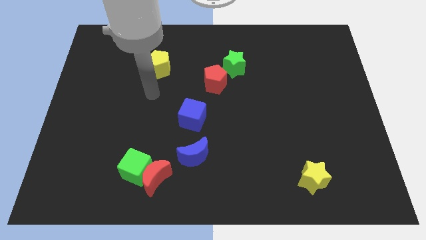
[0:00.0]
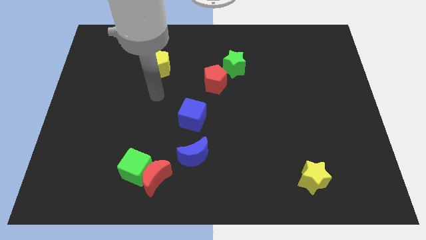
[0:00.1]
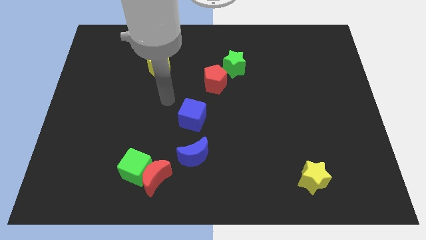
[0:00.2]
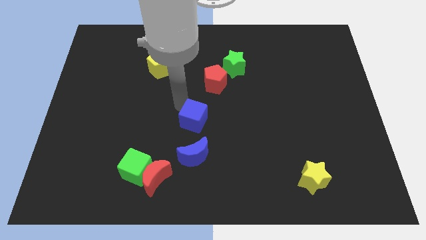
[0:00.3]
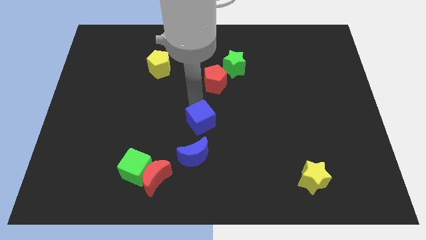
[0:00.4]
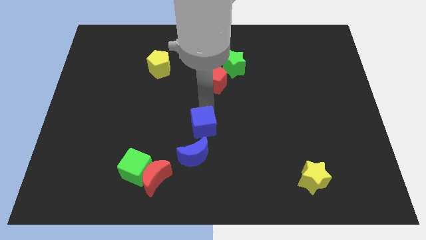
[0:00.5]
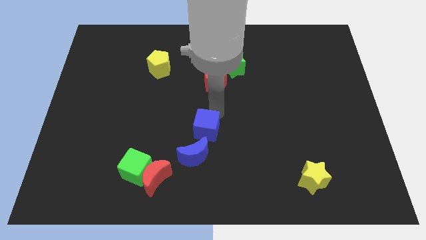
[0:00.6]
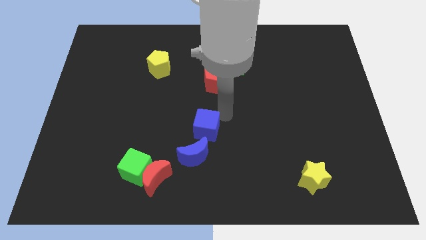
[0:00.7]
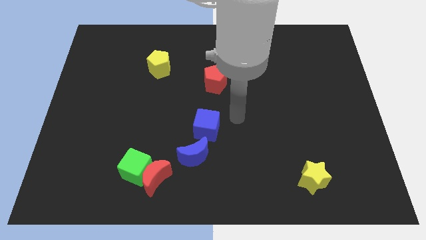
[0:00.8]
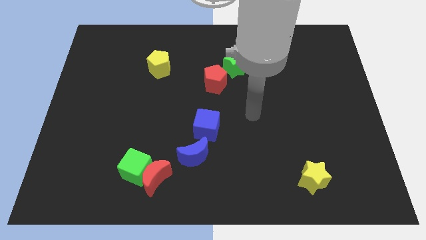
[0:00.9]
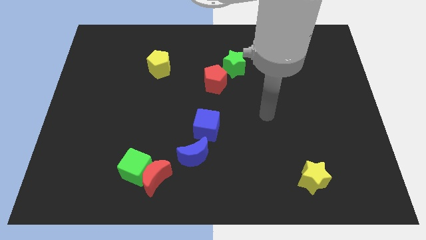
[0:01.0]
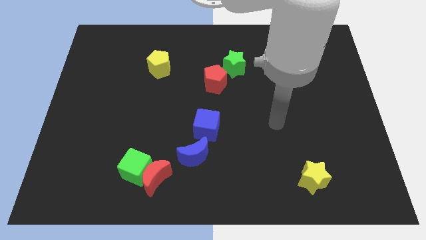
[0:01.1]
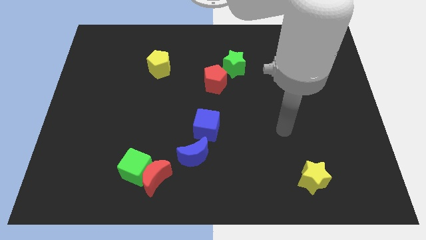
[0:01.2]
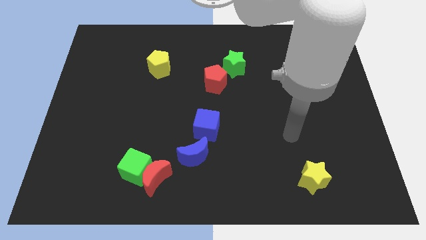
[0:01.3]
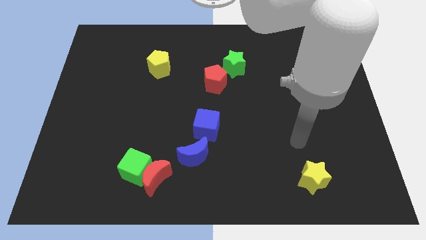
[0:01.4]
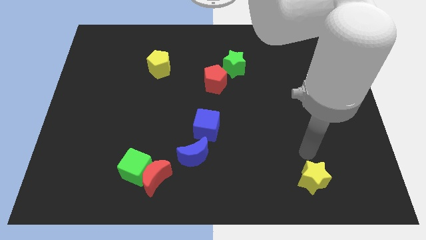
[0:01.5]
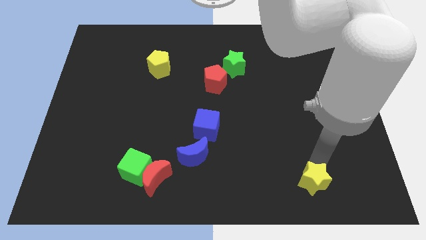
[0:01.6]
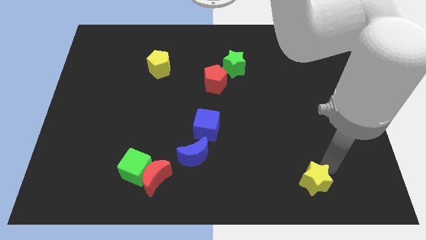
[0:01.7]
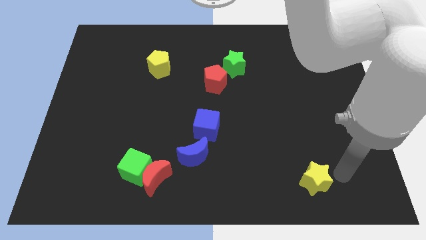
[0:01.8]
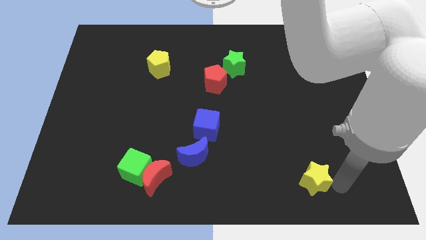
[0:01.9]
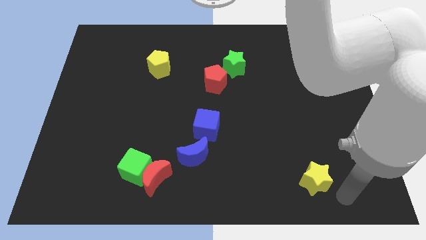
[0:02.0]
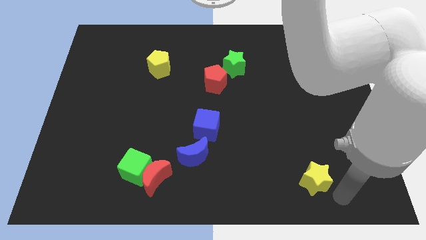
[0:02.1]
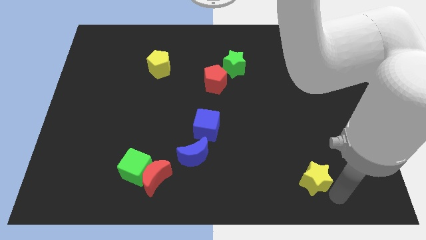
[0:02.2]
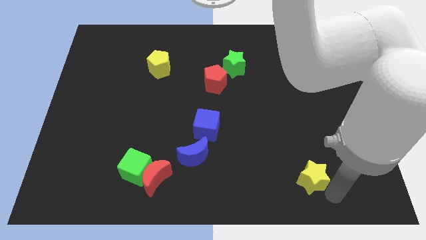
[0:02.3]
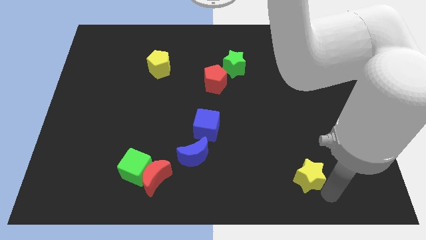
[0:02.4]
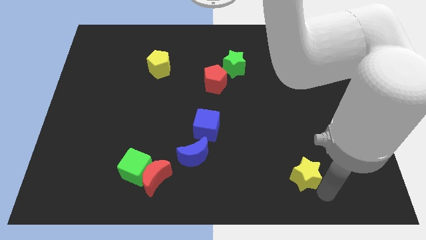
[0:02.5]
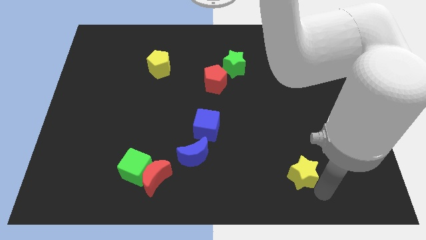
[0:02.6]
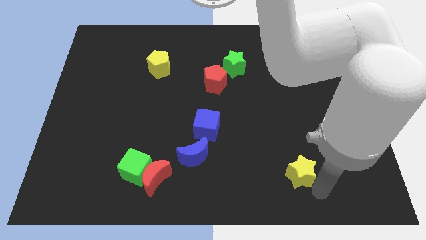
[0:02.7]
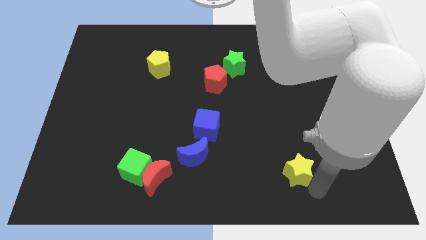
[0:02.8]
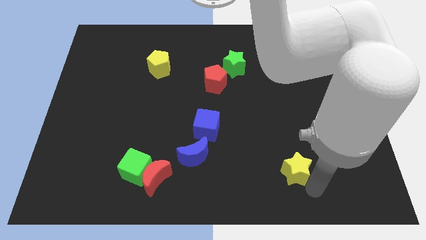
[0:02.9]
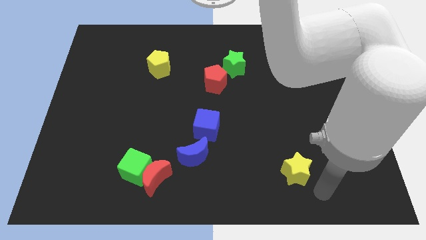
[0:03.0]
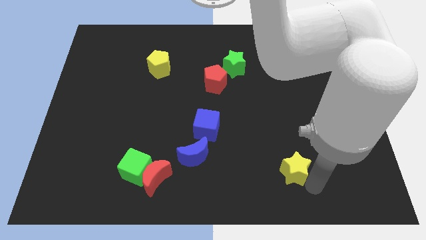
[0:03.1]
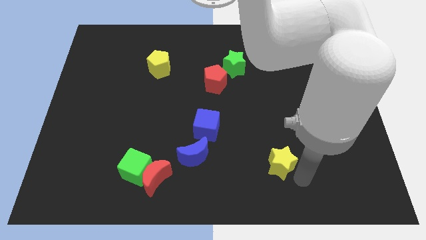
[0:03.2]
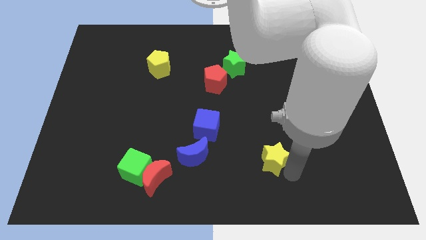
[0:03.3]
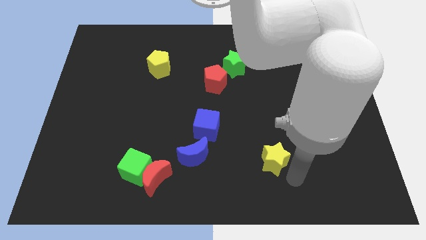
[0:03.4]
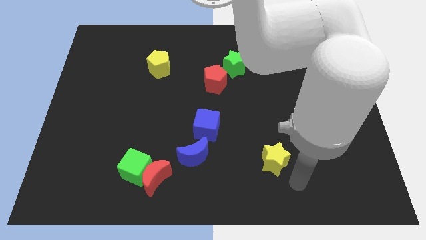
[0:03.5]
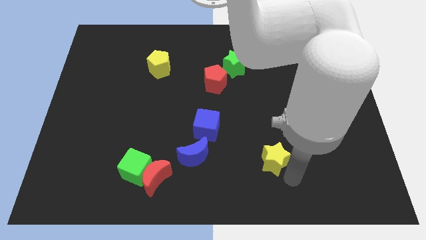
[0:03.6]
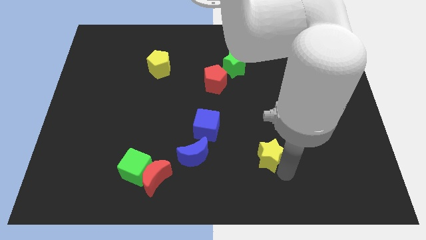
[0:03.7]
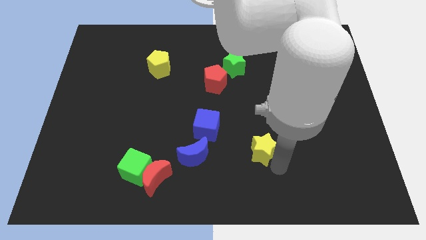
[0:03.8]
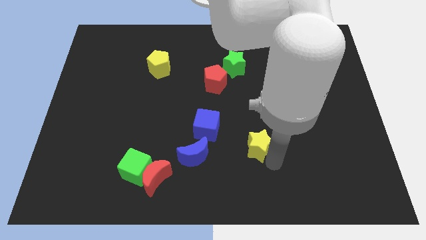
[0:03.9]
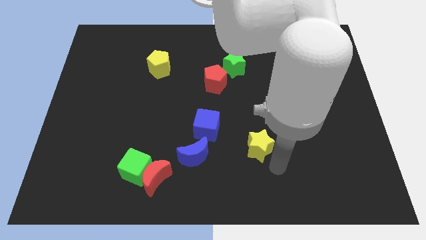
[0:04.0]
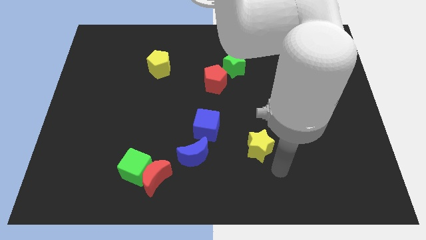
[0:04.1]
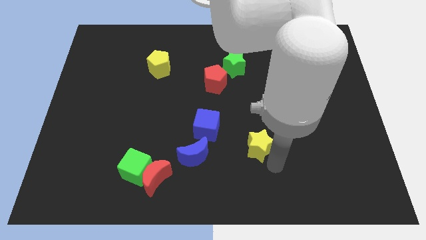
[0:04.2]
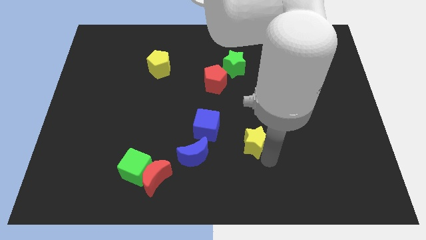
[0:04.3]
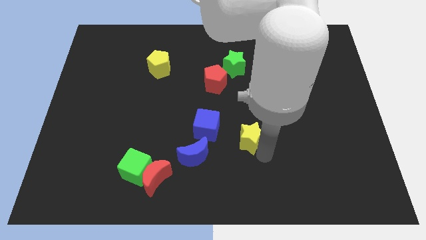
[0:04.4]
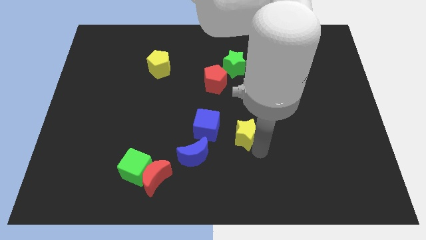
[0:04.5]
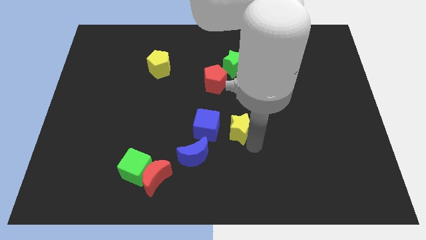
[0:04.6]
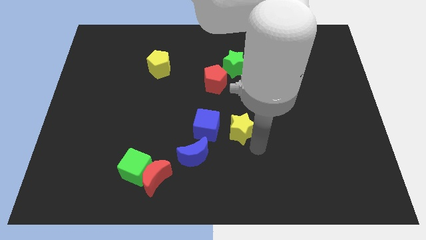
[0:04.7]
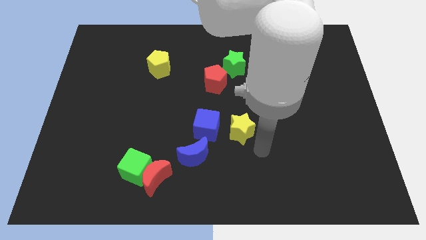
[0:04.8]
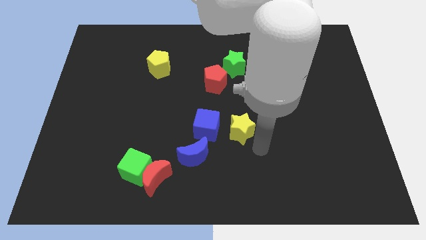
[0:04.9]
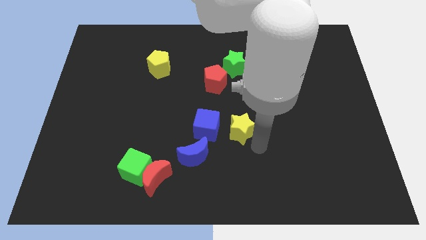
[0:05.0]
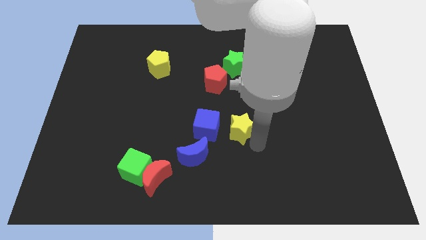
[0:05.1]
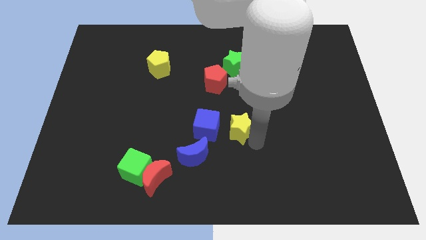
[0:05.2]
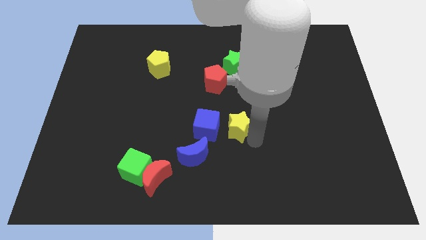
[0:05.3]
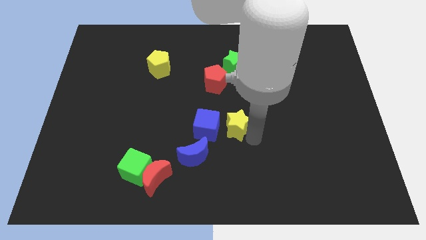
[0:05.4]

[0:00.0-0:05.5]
slide the yellow star upwards and left diagonally

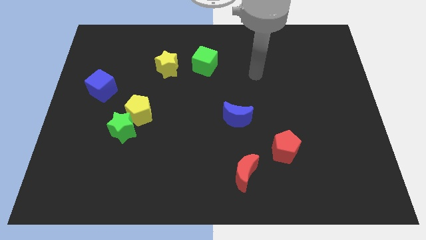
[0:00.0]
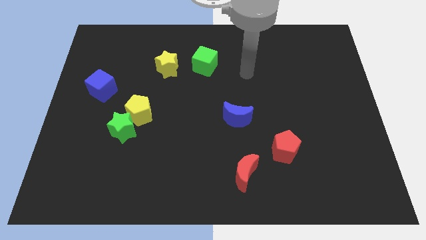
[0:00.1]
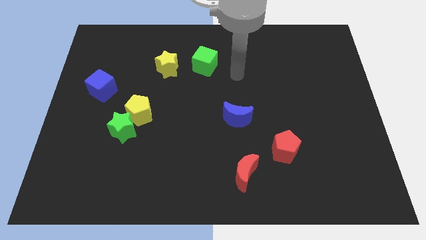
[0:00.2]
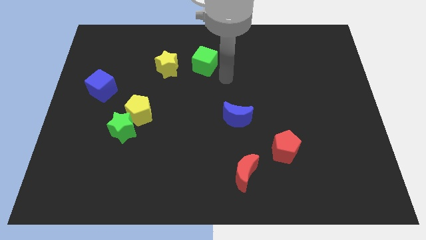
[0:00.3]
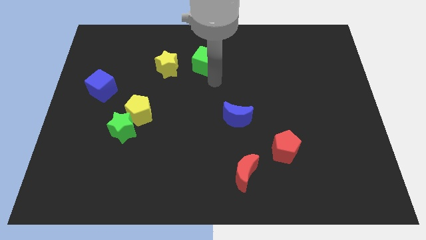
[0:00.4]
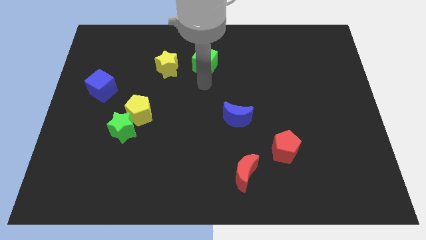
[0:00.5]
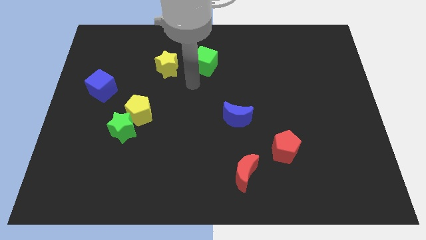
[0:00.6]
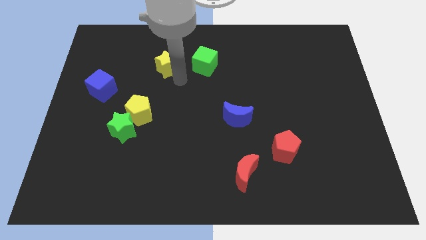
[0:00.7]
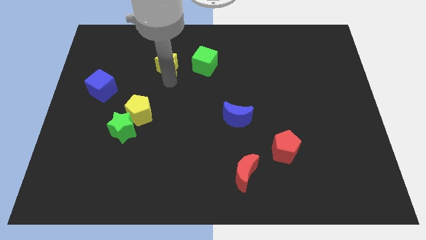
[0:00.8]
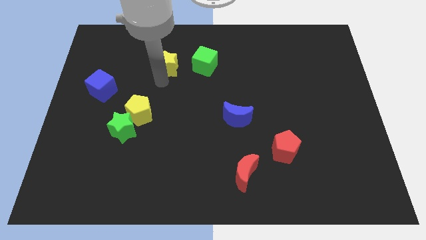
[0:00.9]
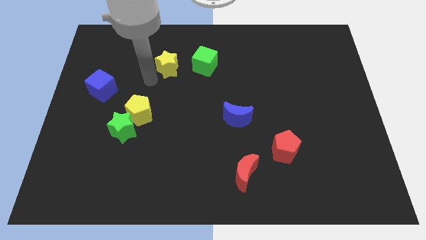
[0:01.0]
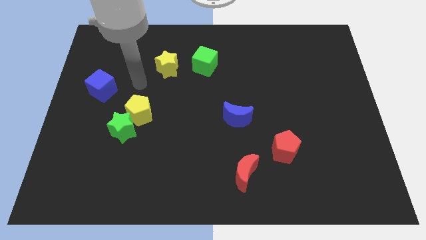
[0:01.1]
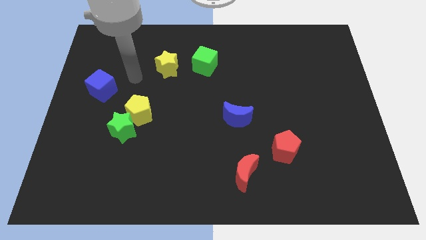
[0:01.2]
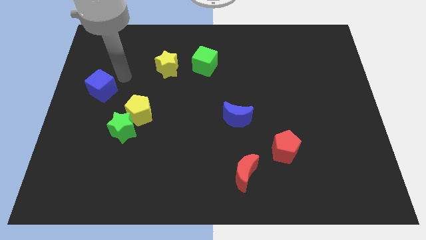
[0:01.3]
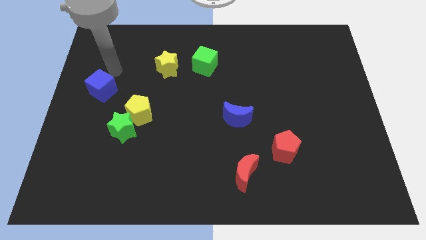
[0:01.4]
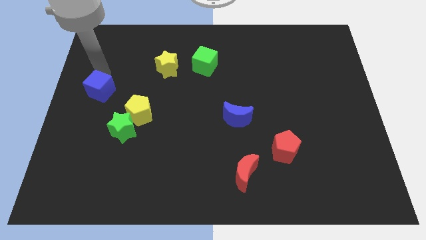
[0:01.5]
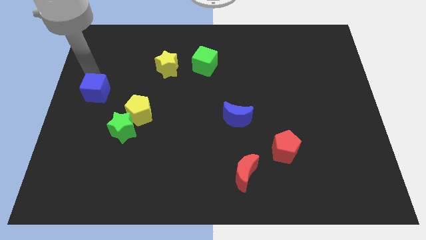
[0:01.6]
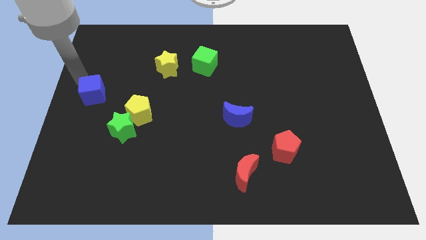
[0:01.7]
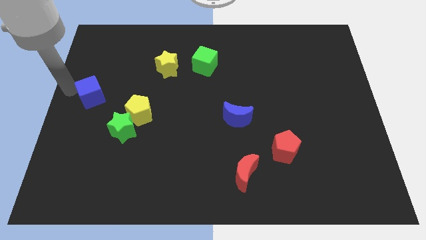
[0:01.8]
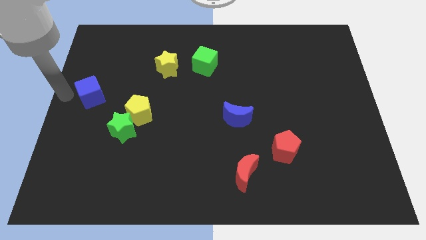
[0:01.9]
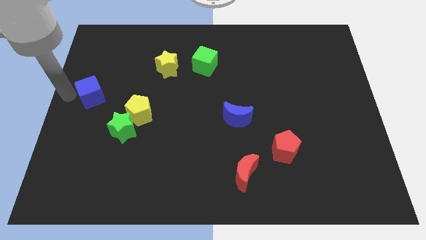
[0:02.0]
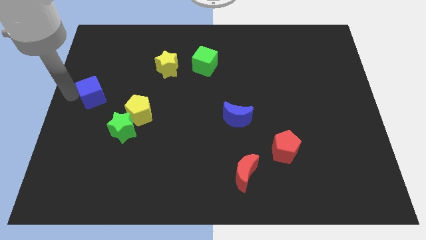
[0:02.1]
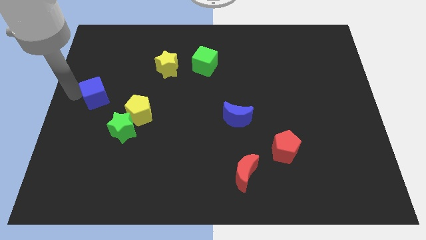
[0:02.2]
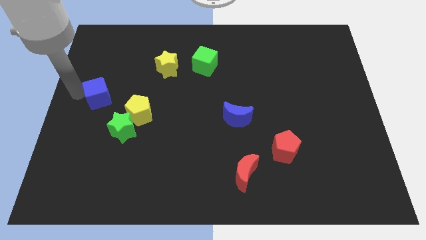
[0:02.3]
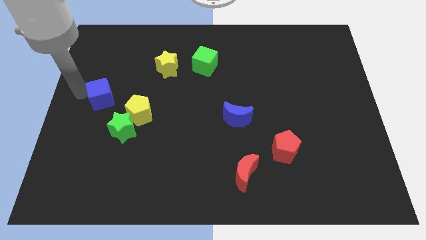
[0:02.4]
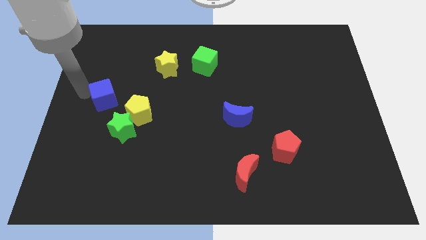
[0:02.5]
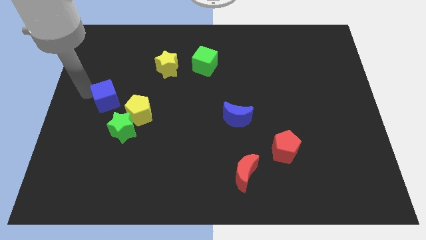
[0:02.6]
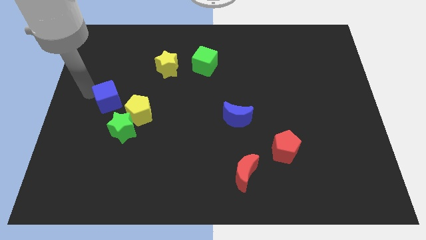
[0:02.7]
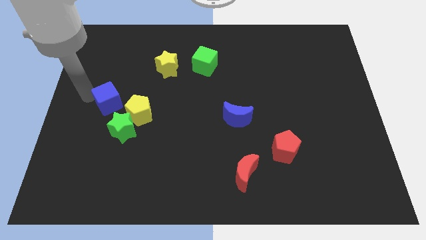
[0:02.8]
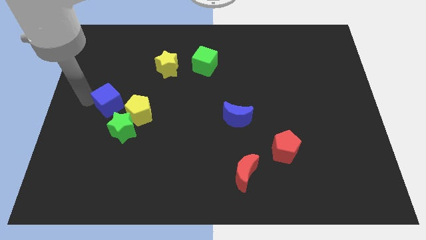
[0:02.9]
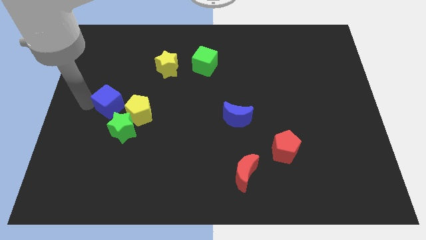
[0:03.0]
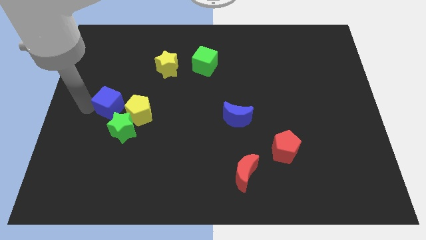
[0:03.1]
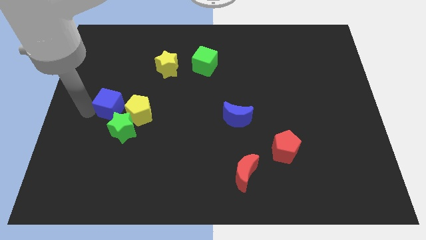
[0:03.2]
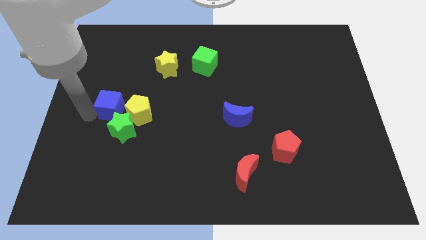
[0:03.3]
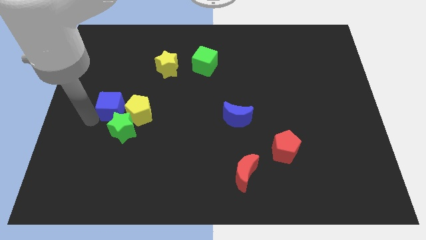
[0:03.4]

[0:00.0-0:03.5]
push the blue cube downwards and to the right a bit
